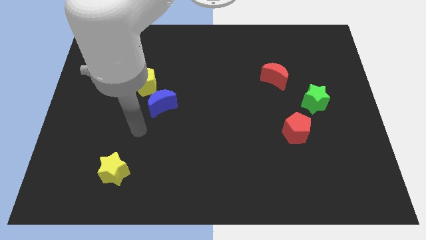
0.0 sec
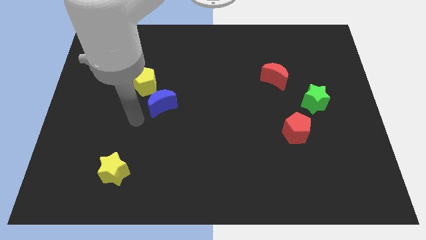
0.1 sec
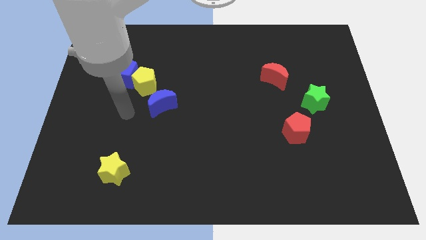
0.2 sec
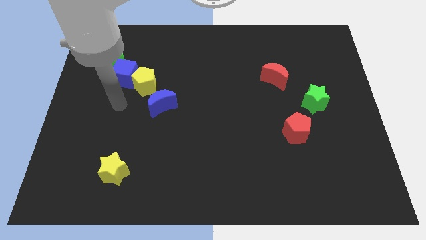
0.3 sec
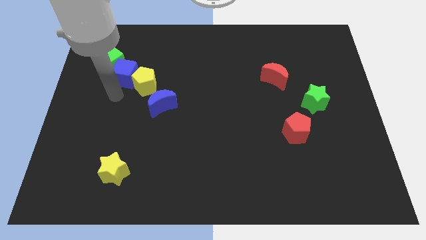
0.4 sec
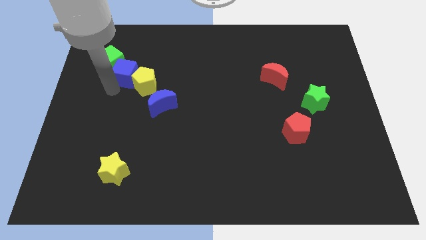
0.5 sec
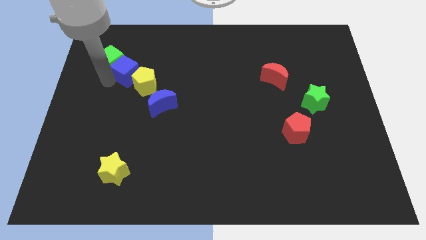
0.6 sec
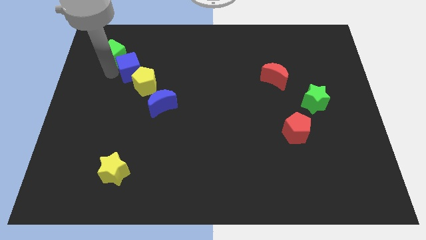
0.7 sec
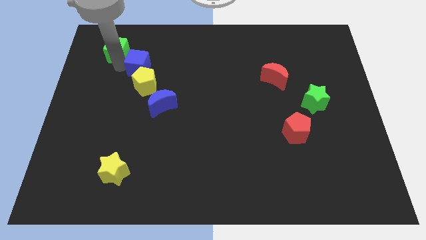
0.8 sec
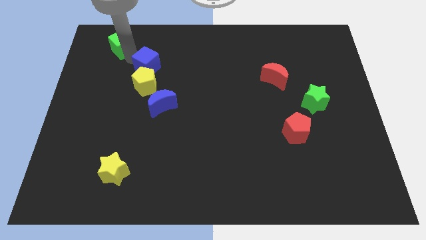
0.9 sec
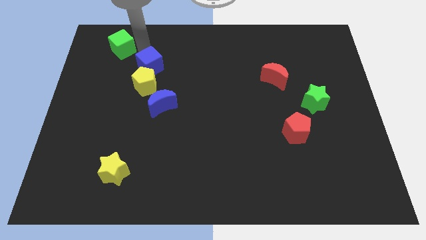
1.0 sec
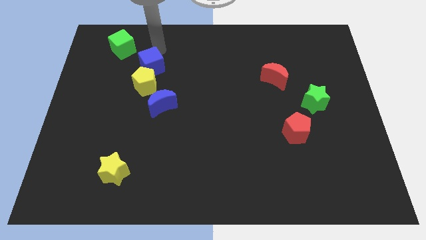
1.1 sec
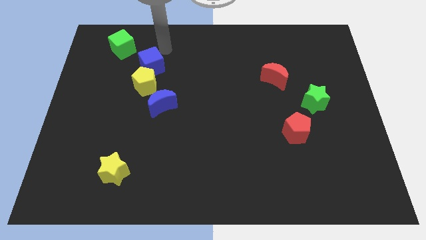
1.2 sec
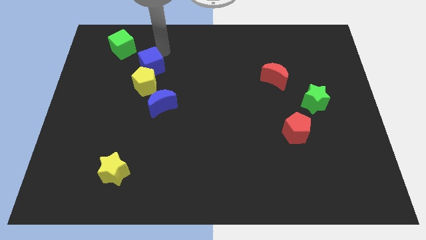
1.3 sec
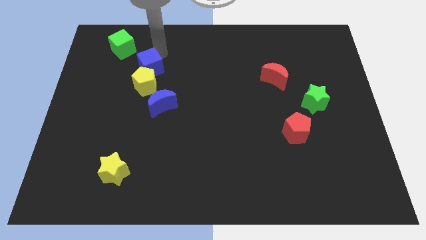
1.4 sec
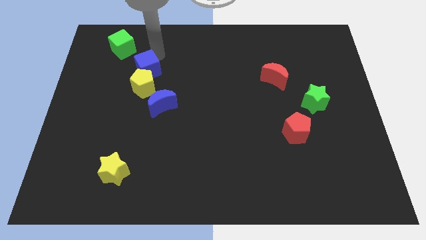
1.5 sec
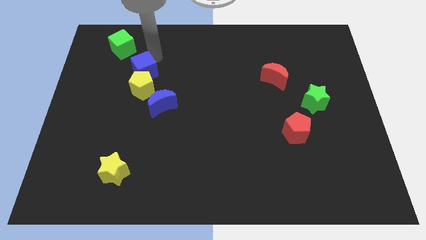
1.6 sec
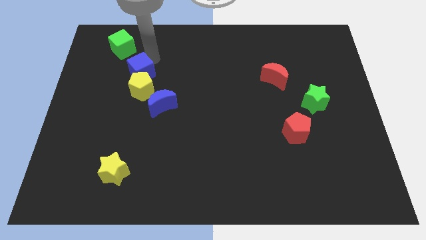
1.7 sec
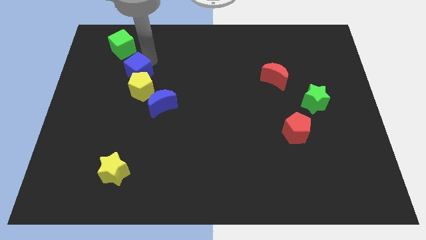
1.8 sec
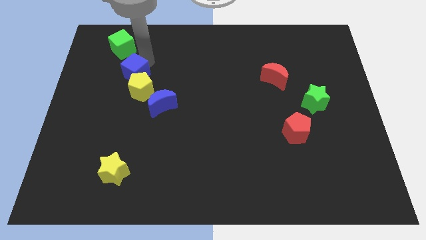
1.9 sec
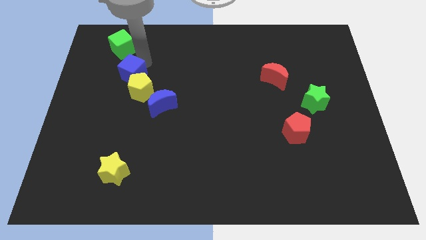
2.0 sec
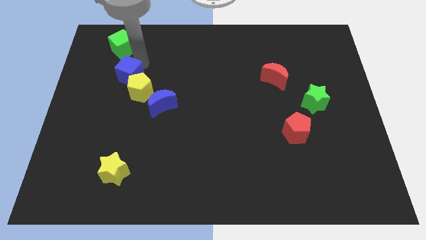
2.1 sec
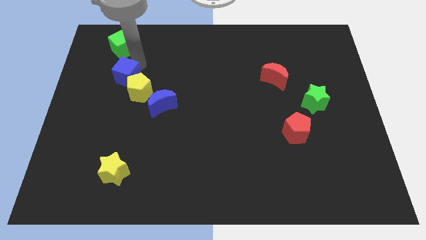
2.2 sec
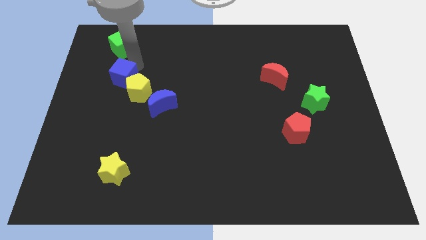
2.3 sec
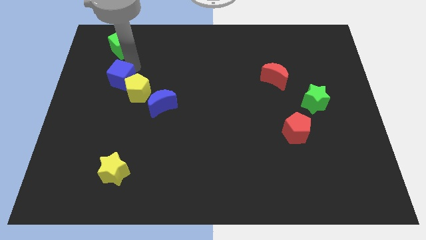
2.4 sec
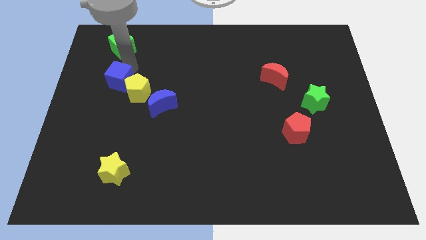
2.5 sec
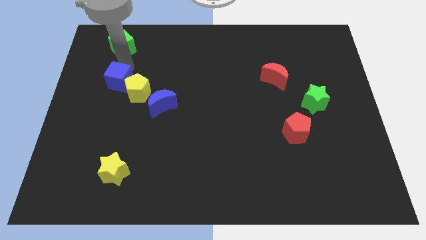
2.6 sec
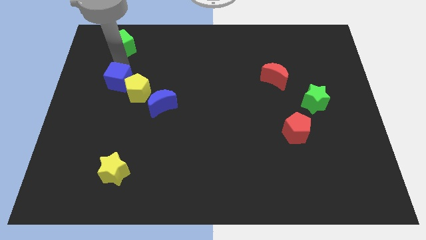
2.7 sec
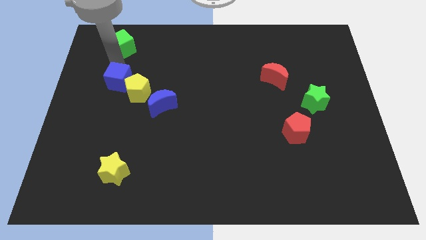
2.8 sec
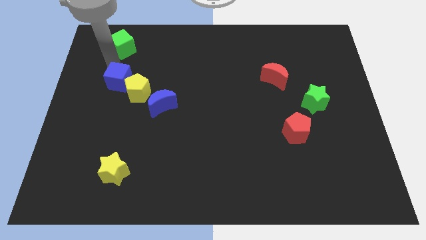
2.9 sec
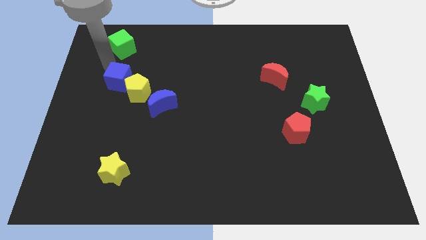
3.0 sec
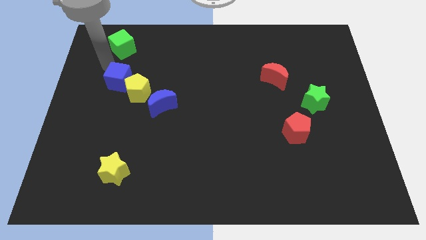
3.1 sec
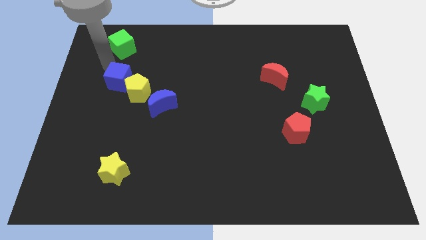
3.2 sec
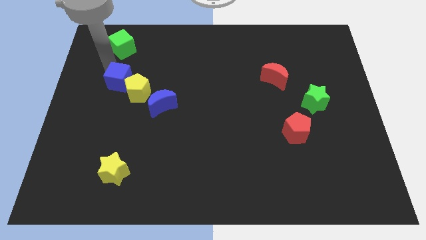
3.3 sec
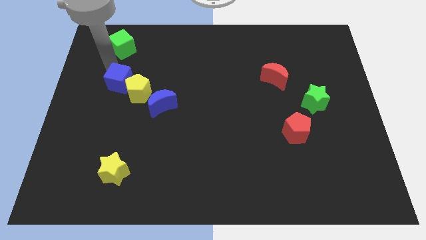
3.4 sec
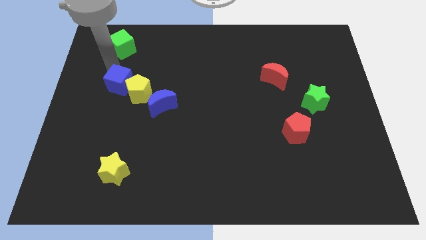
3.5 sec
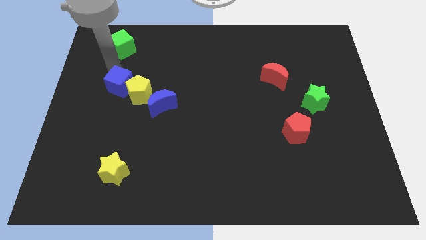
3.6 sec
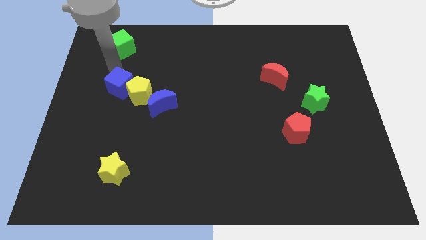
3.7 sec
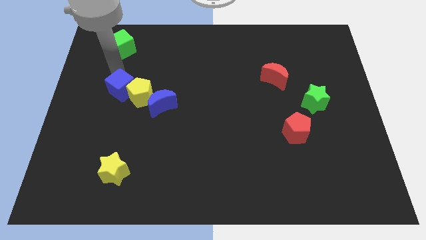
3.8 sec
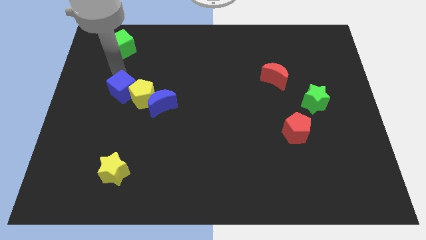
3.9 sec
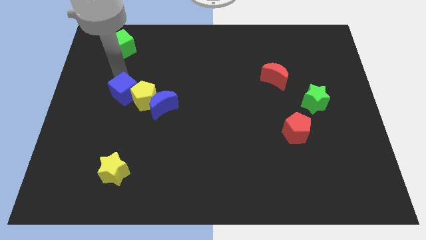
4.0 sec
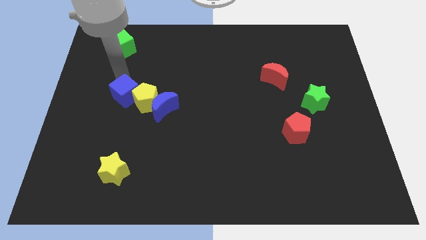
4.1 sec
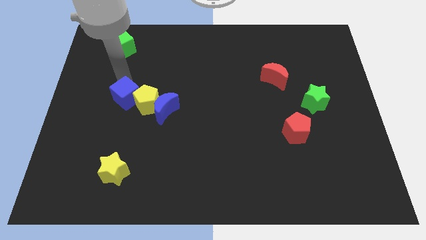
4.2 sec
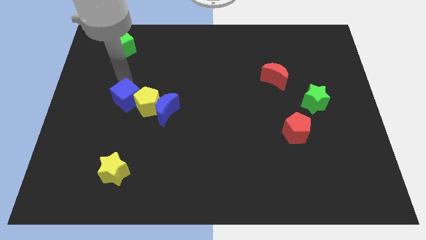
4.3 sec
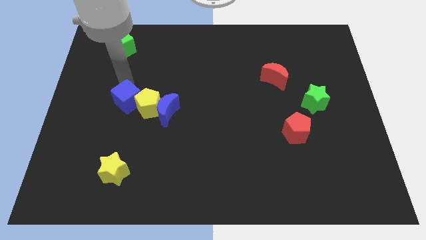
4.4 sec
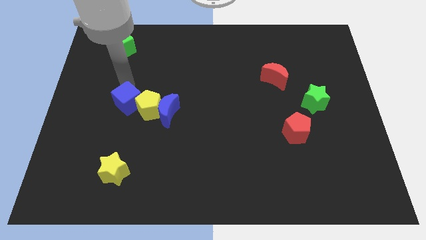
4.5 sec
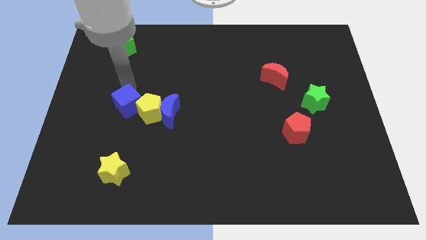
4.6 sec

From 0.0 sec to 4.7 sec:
slightly push the blue cube diagonally down and to the right

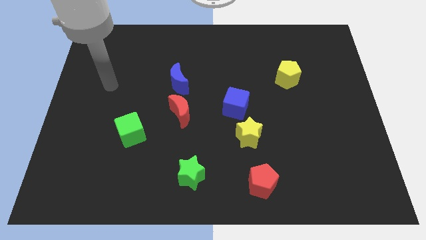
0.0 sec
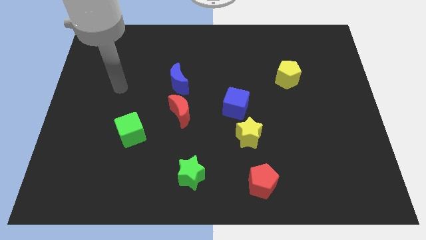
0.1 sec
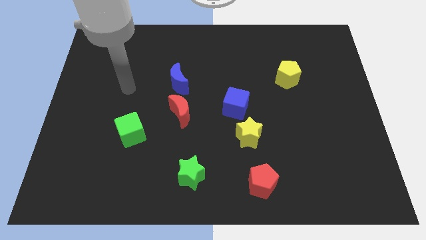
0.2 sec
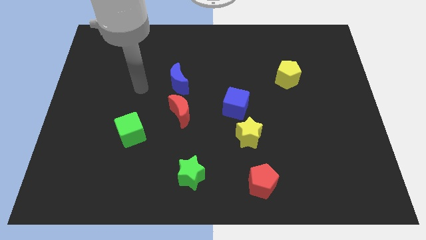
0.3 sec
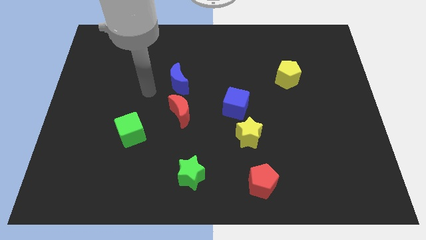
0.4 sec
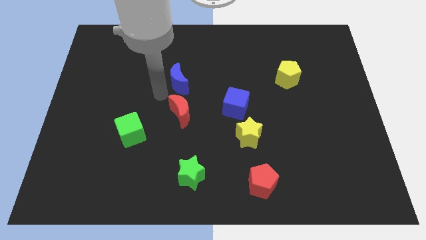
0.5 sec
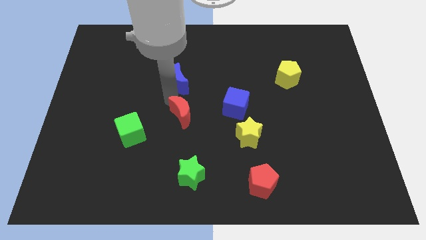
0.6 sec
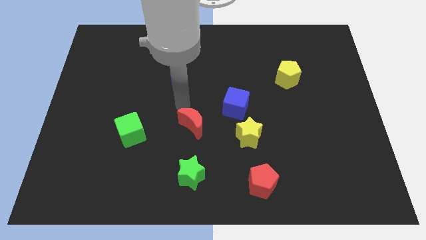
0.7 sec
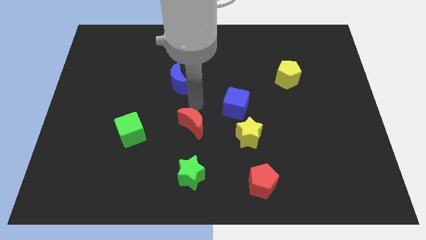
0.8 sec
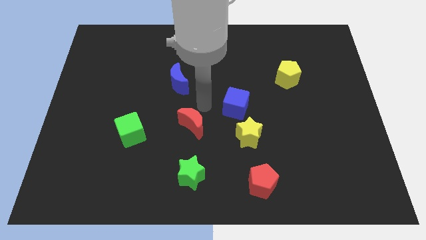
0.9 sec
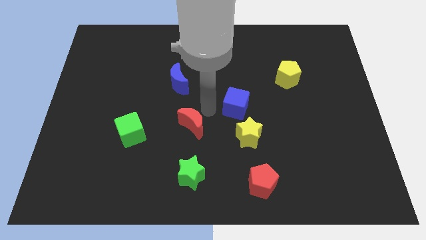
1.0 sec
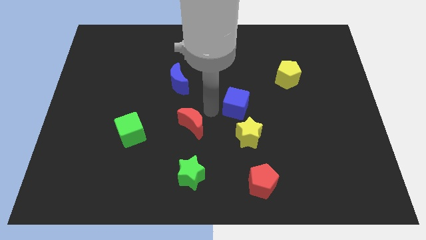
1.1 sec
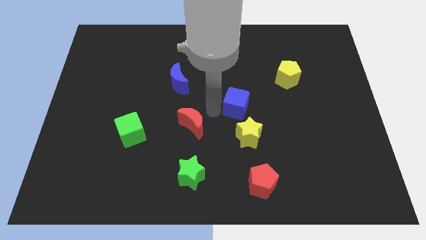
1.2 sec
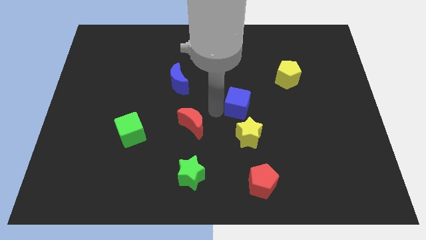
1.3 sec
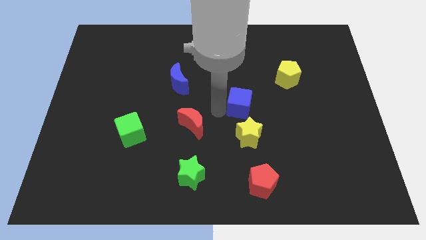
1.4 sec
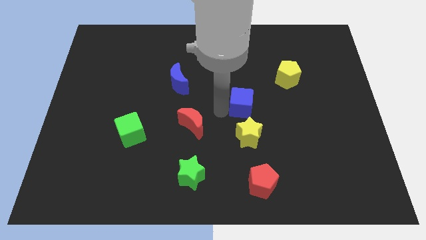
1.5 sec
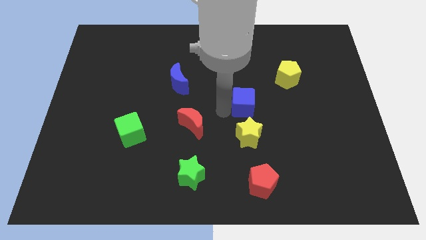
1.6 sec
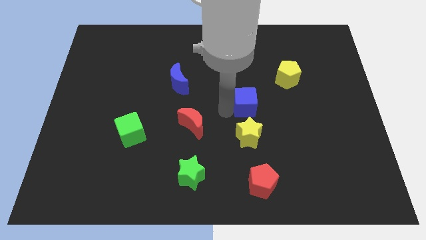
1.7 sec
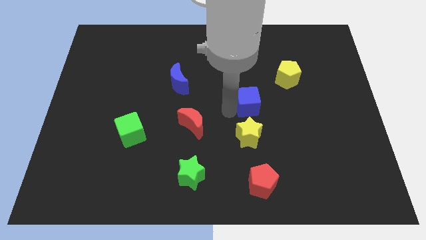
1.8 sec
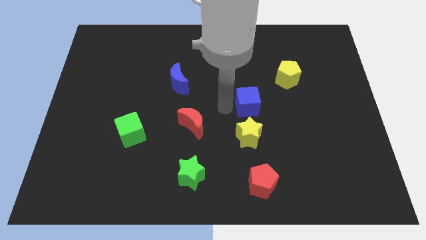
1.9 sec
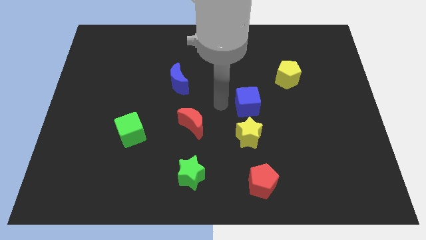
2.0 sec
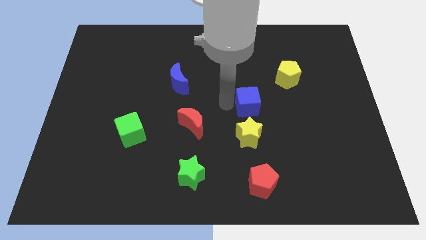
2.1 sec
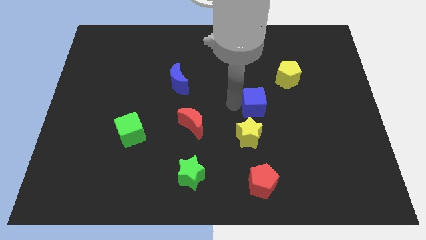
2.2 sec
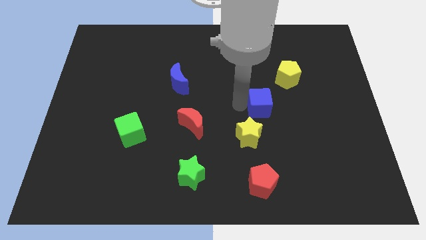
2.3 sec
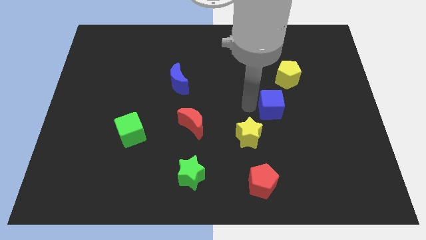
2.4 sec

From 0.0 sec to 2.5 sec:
slightly push the blue cube to the right

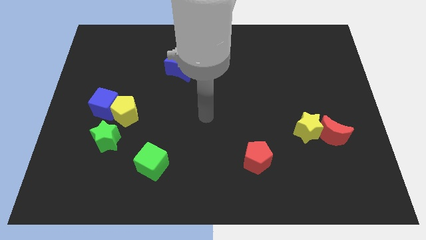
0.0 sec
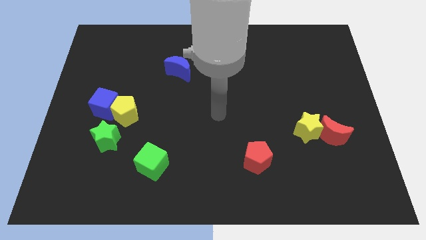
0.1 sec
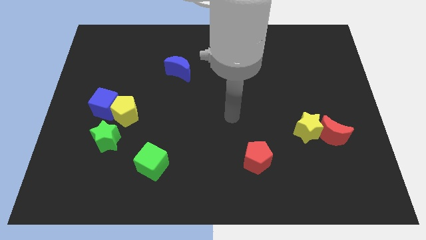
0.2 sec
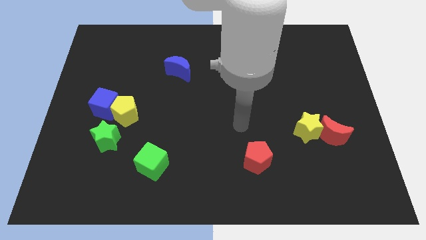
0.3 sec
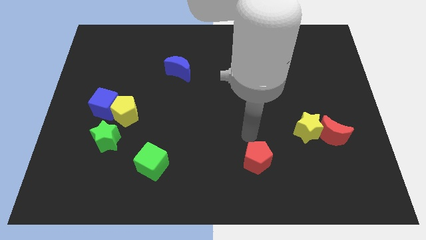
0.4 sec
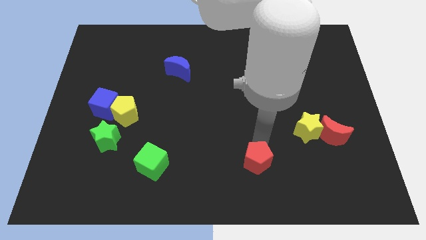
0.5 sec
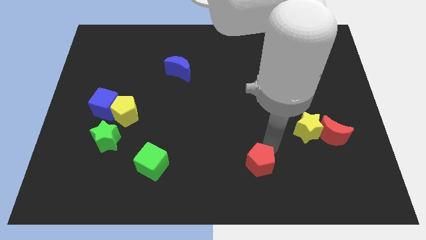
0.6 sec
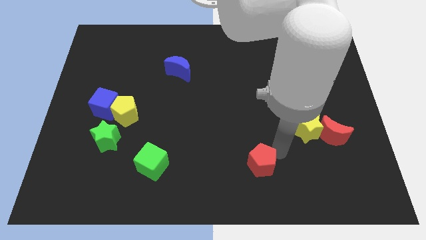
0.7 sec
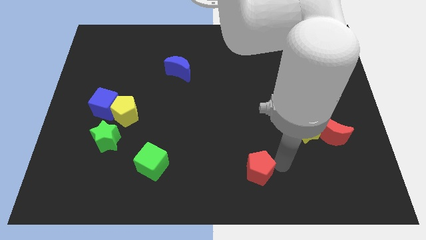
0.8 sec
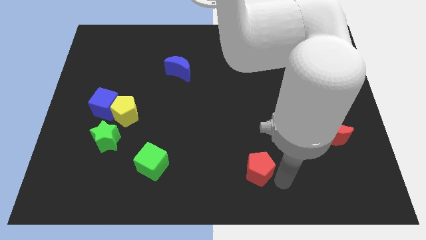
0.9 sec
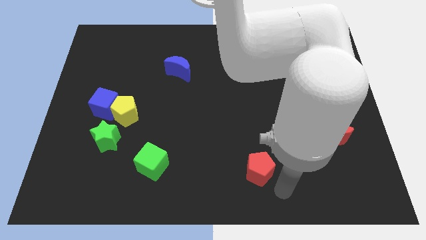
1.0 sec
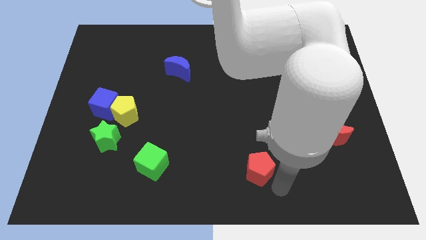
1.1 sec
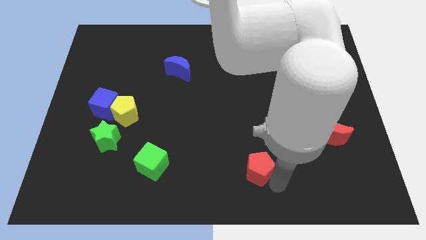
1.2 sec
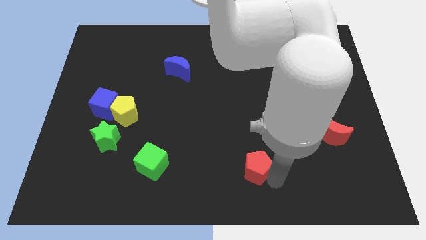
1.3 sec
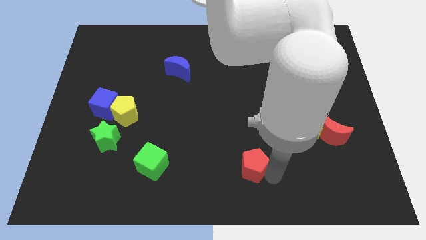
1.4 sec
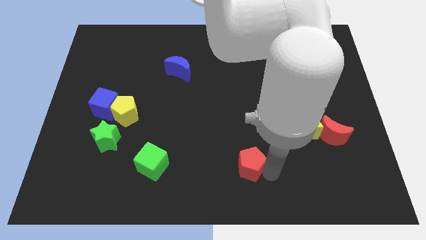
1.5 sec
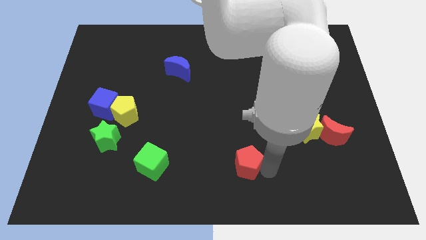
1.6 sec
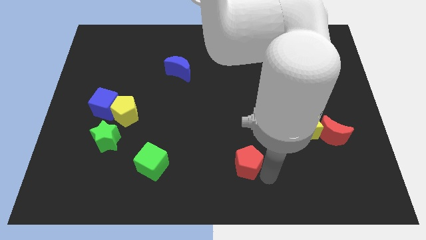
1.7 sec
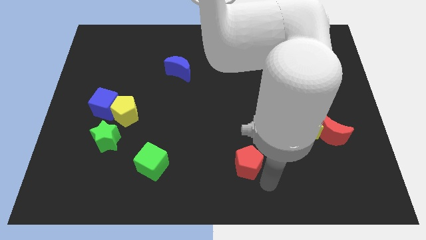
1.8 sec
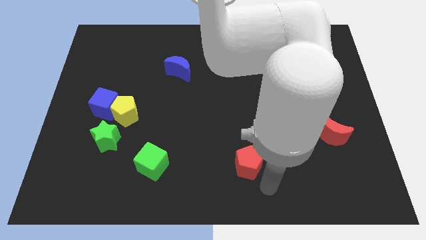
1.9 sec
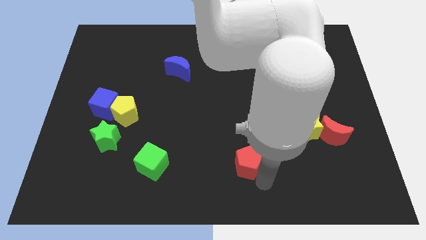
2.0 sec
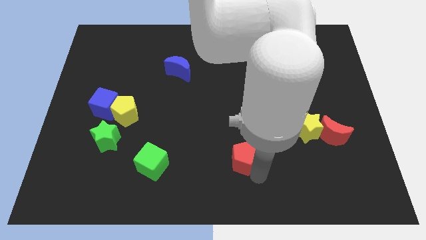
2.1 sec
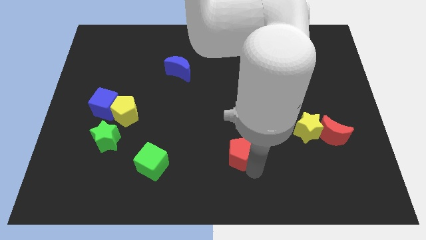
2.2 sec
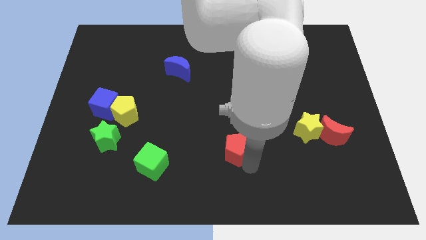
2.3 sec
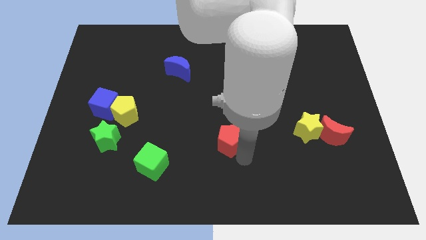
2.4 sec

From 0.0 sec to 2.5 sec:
slide the red pentagon a bit upwards and then left
